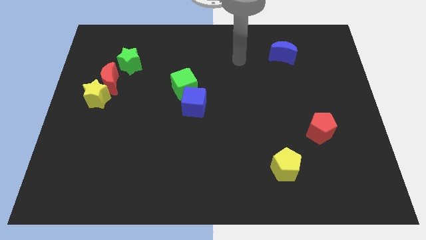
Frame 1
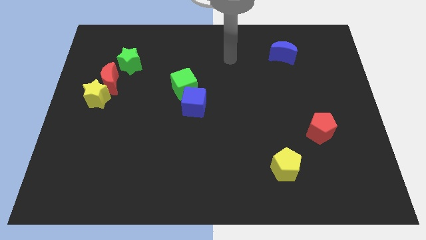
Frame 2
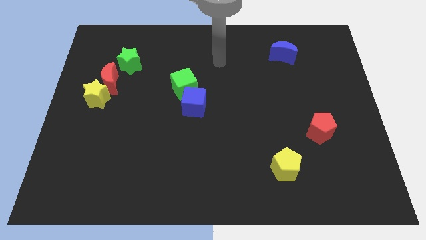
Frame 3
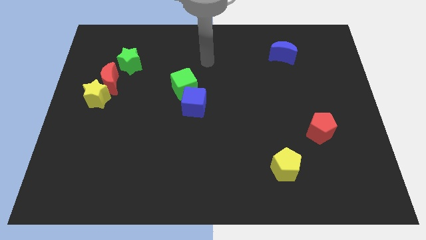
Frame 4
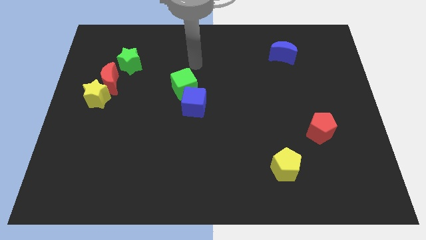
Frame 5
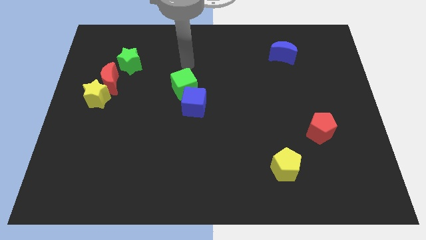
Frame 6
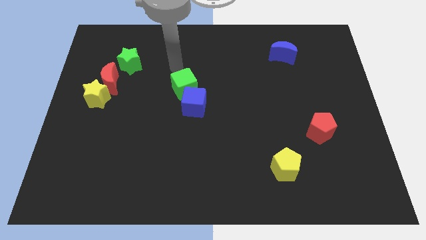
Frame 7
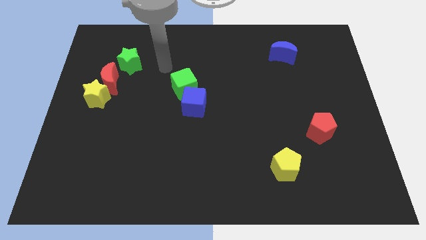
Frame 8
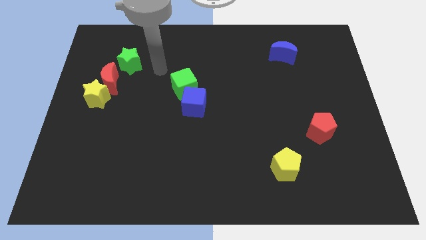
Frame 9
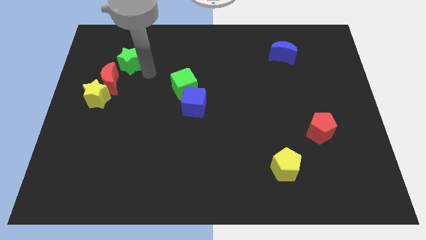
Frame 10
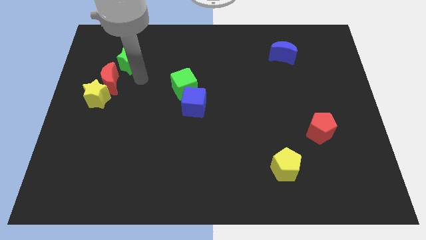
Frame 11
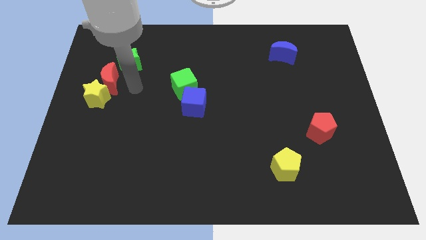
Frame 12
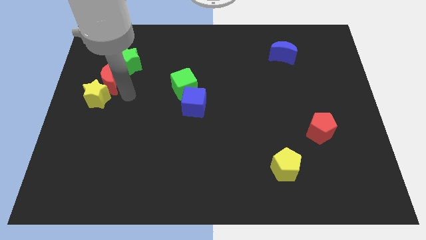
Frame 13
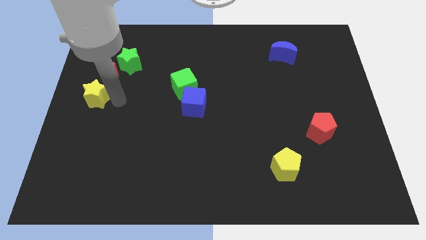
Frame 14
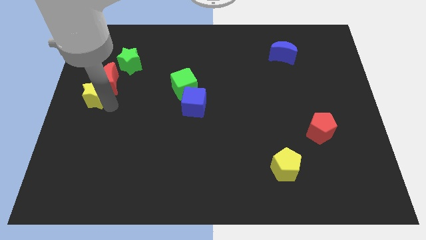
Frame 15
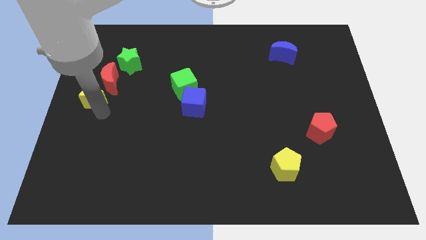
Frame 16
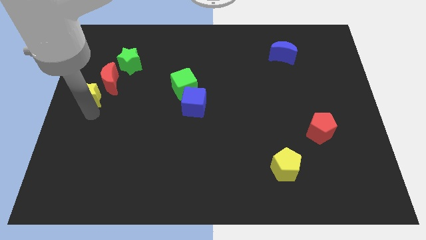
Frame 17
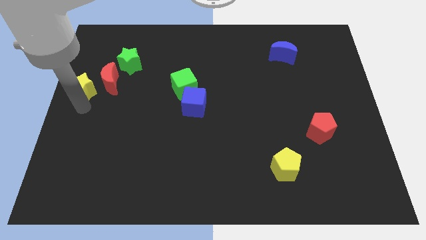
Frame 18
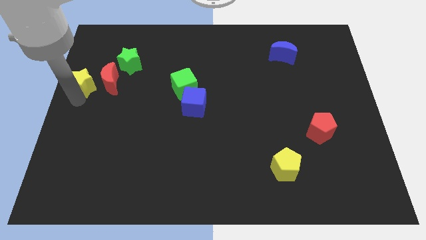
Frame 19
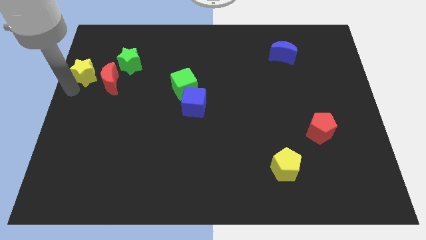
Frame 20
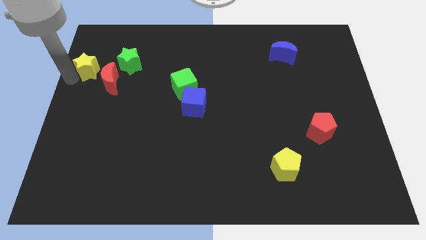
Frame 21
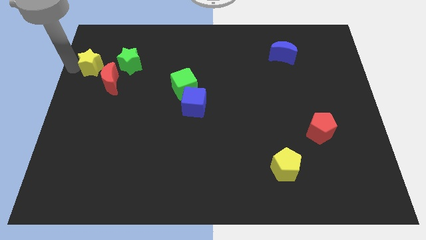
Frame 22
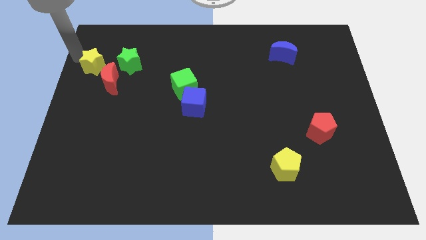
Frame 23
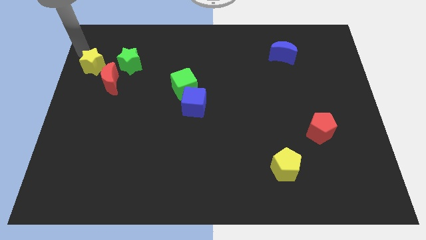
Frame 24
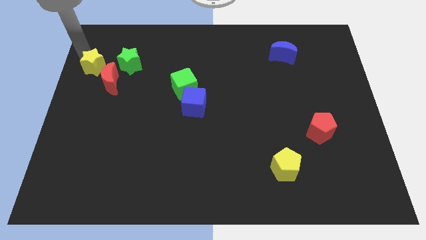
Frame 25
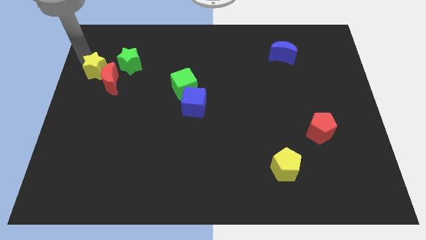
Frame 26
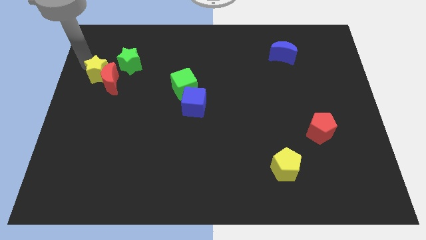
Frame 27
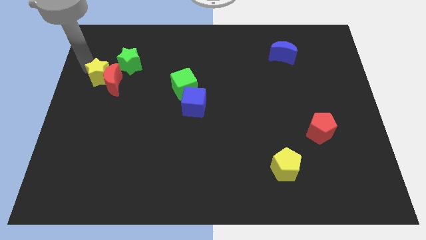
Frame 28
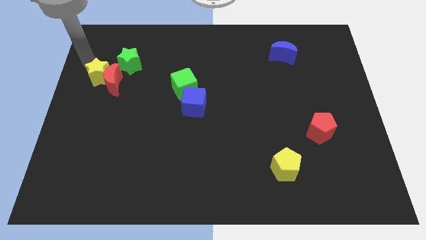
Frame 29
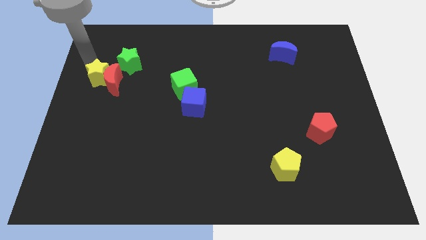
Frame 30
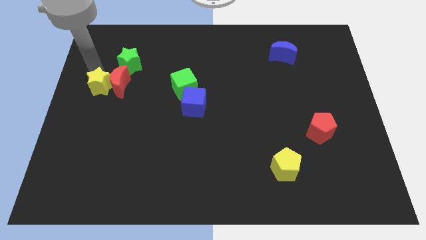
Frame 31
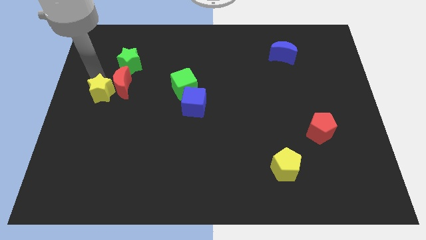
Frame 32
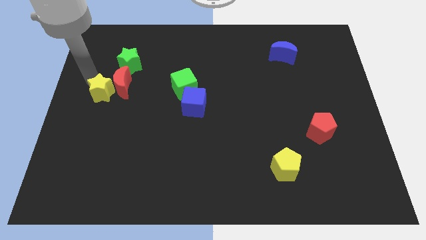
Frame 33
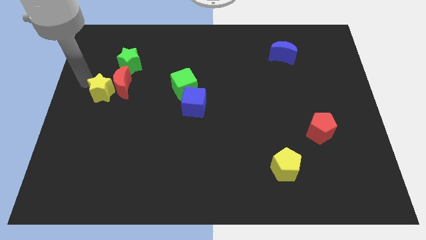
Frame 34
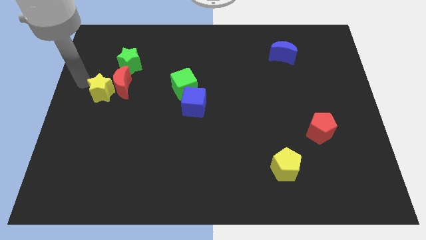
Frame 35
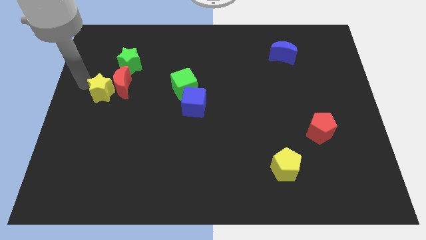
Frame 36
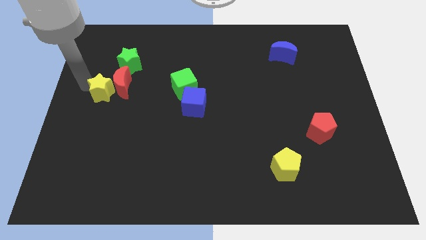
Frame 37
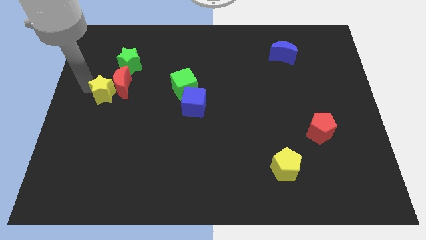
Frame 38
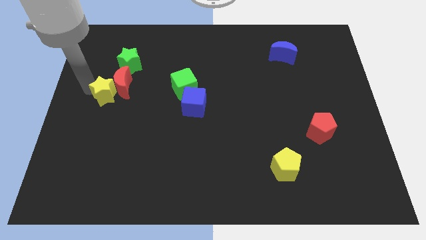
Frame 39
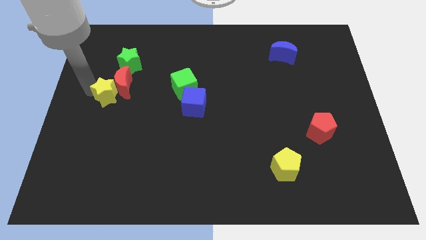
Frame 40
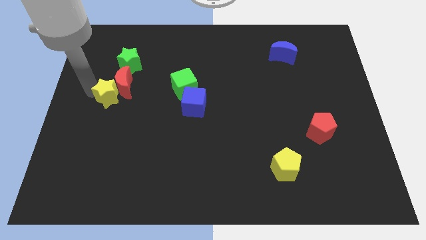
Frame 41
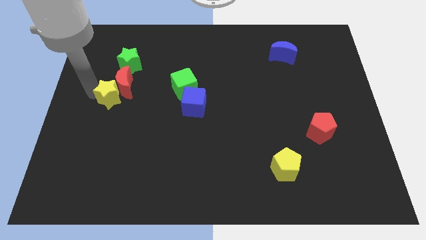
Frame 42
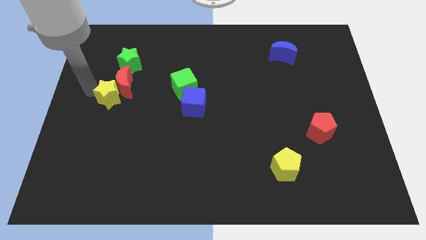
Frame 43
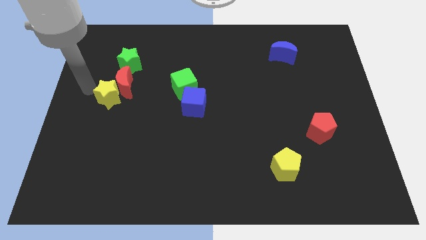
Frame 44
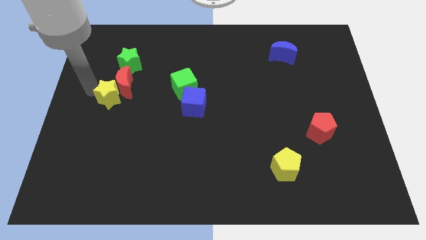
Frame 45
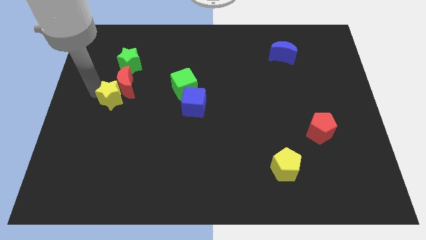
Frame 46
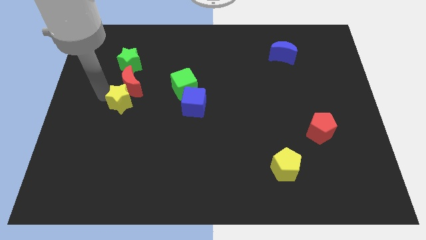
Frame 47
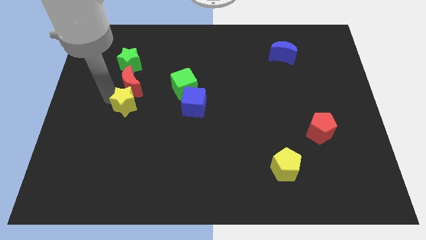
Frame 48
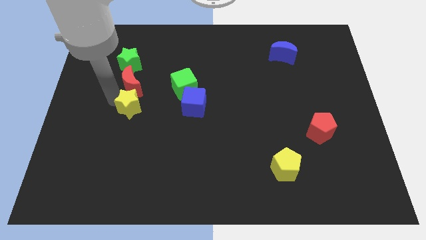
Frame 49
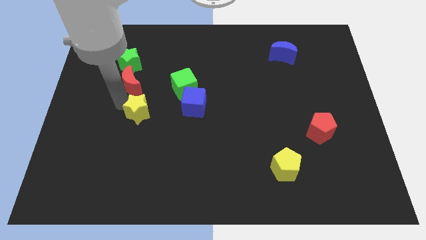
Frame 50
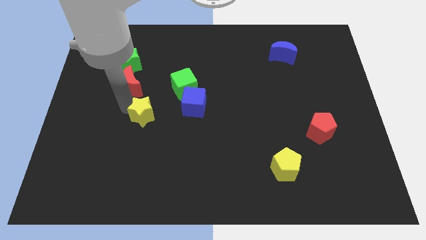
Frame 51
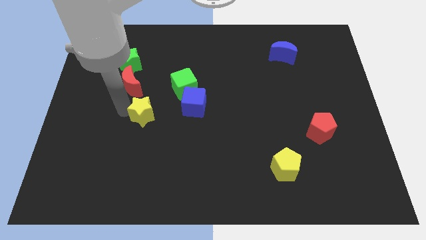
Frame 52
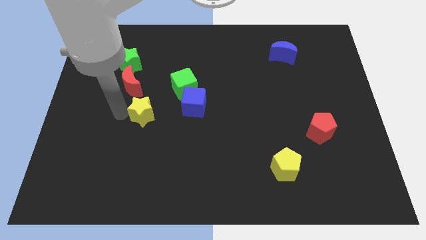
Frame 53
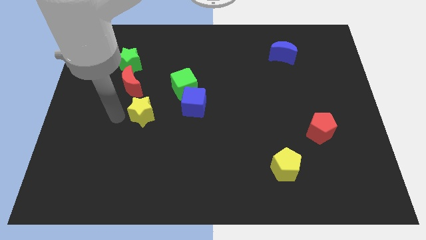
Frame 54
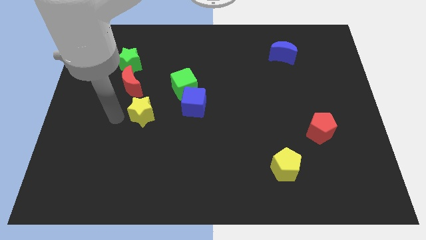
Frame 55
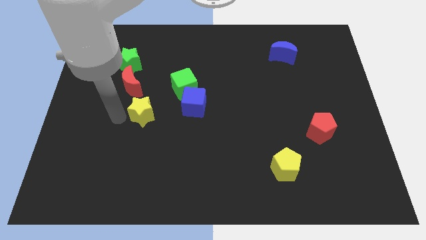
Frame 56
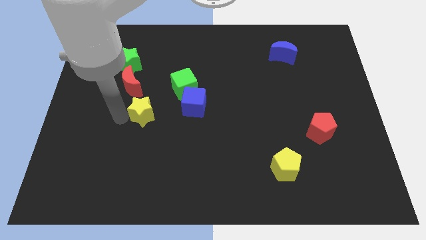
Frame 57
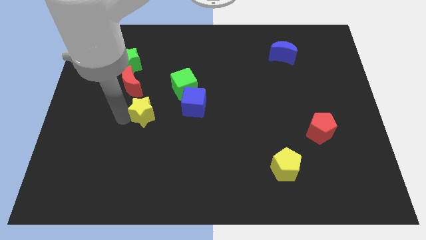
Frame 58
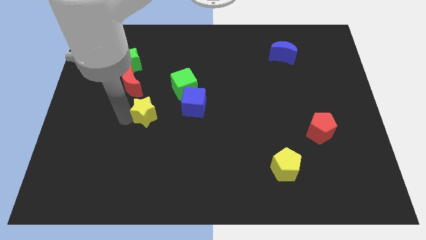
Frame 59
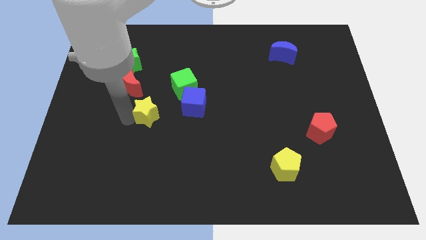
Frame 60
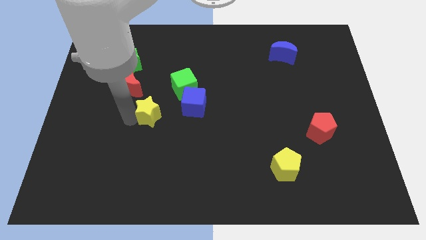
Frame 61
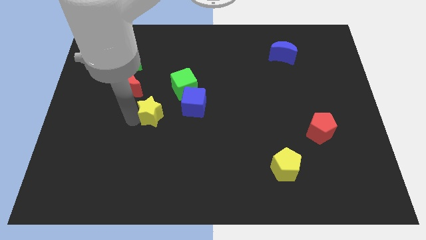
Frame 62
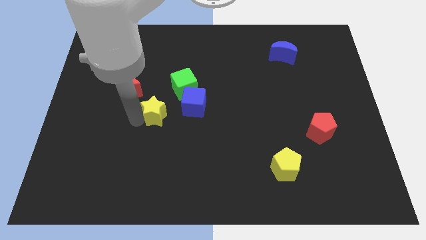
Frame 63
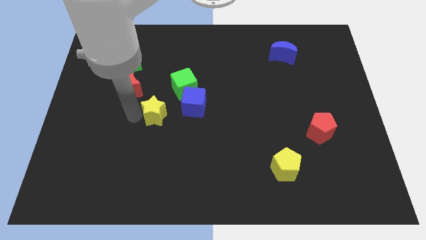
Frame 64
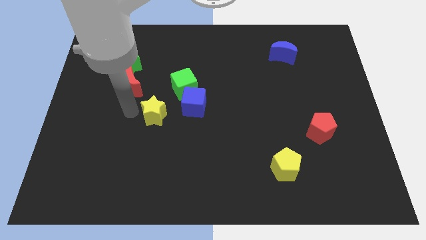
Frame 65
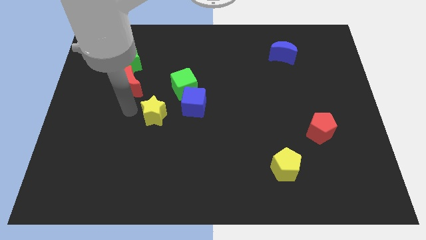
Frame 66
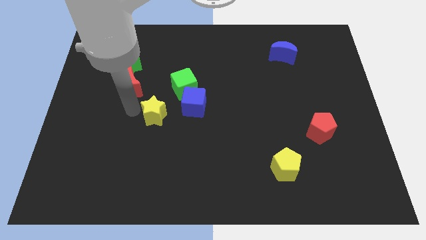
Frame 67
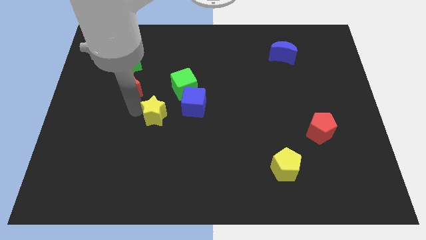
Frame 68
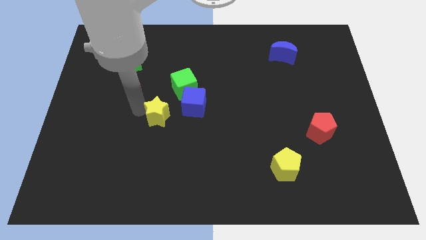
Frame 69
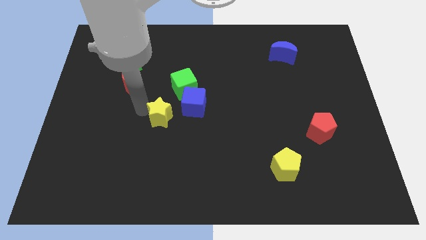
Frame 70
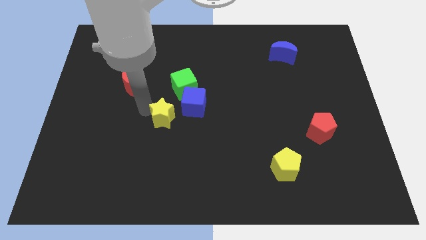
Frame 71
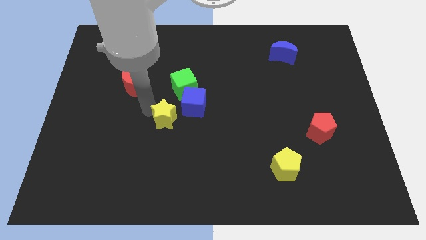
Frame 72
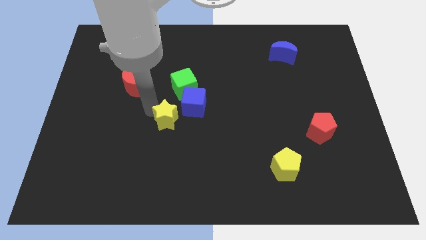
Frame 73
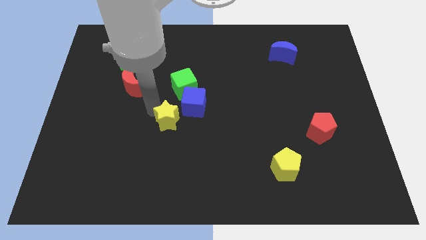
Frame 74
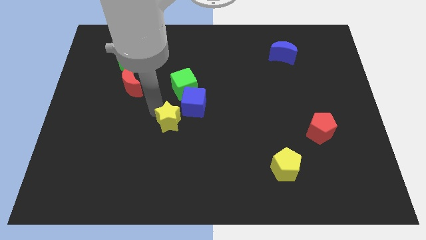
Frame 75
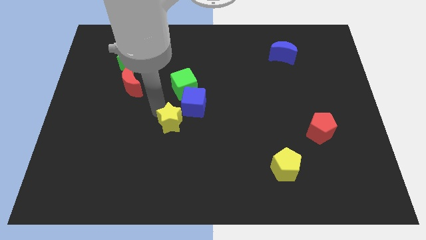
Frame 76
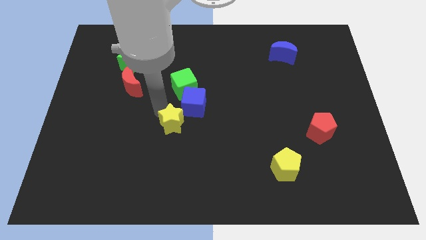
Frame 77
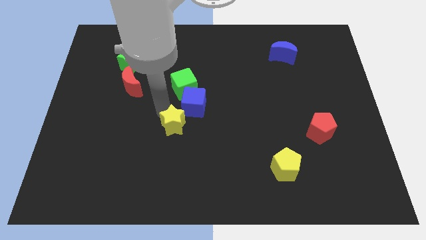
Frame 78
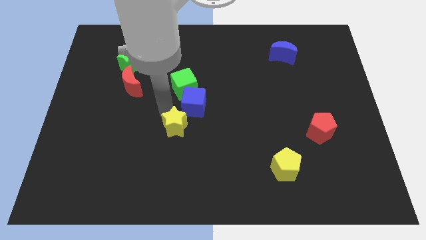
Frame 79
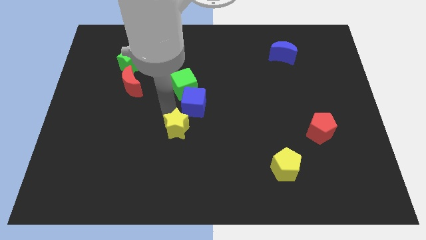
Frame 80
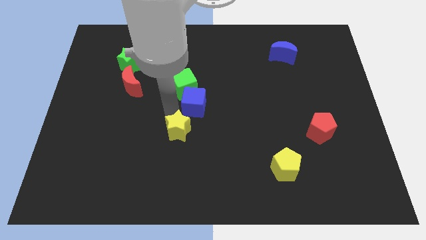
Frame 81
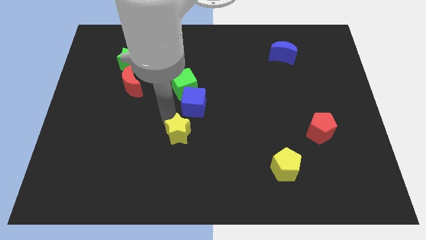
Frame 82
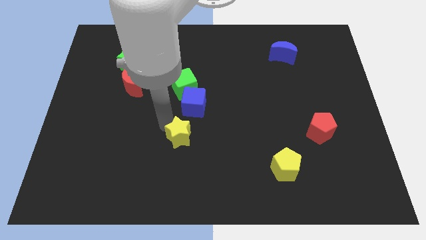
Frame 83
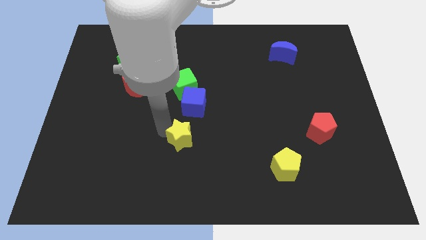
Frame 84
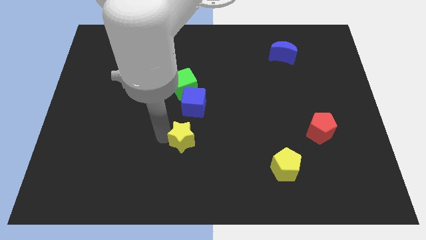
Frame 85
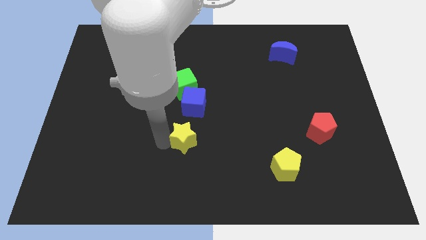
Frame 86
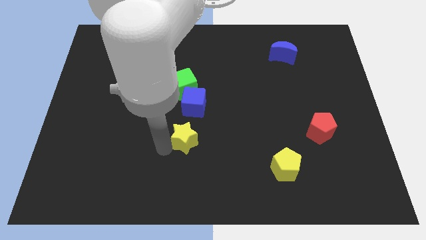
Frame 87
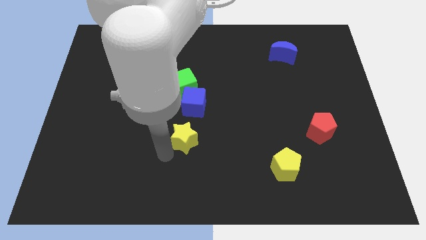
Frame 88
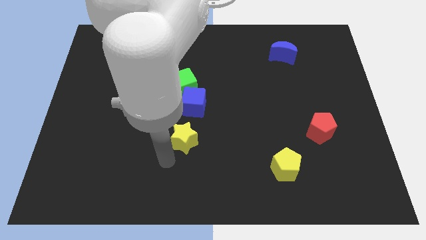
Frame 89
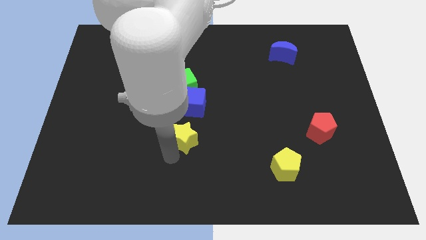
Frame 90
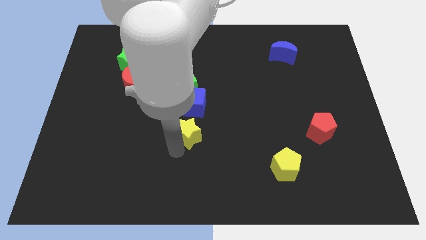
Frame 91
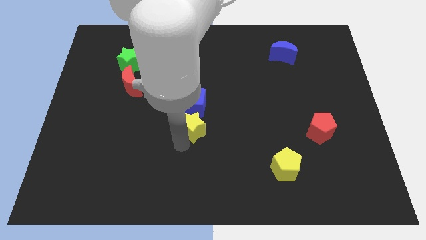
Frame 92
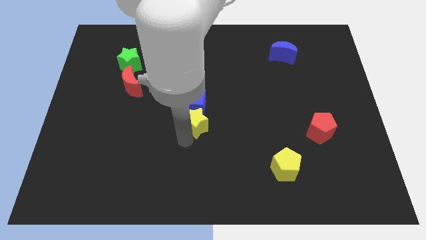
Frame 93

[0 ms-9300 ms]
move the yellow star right
